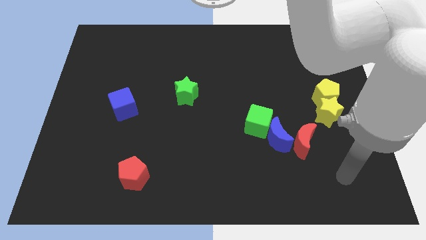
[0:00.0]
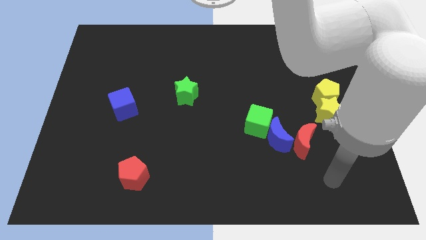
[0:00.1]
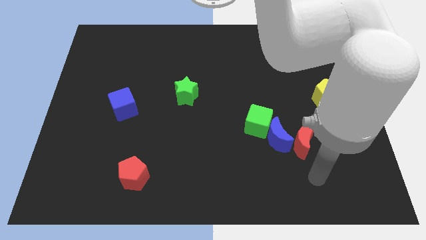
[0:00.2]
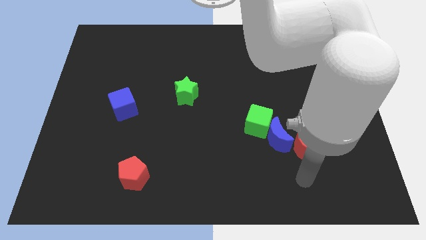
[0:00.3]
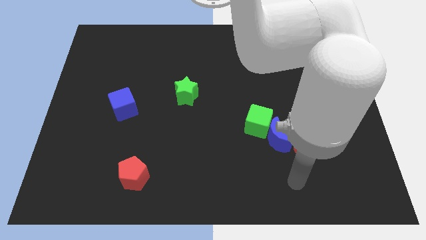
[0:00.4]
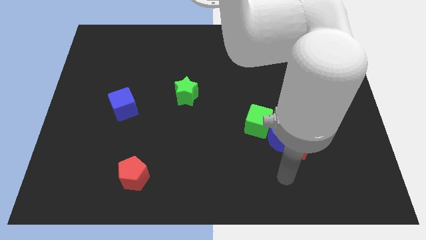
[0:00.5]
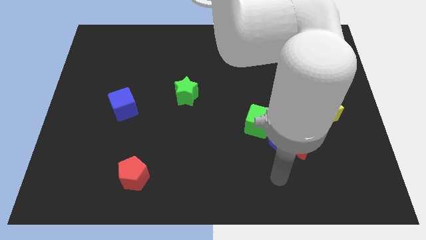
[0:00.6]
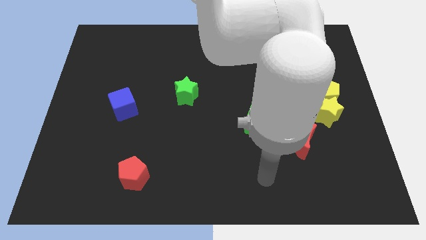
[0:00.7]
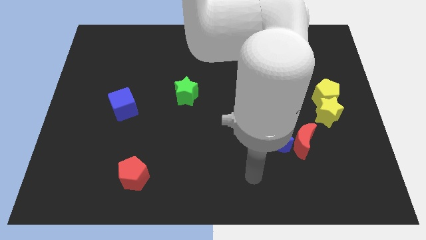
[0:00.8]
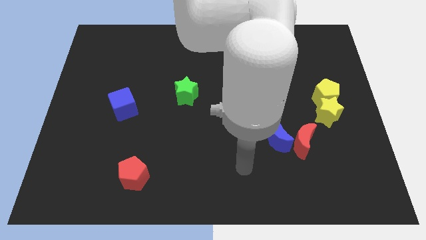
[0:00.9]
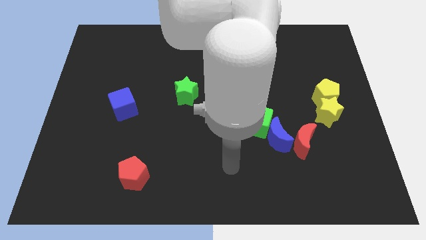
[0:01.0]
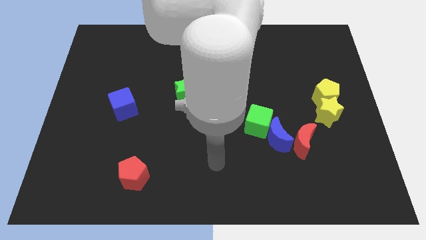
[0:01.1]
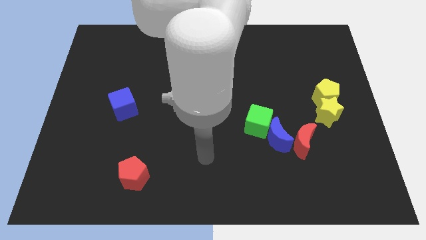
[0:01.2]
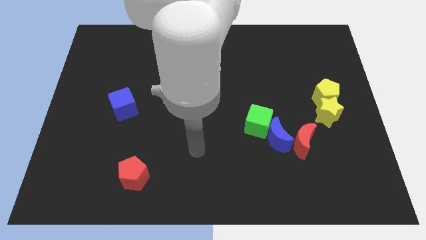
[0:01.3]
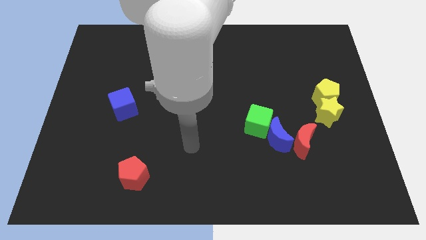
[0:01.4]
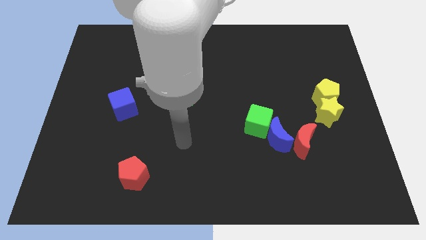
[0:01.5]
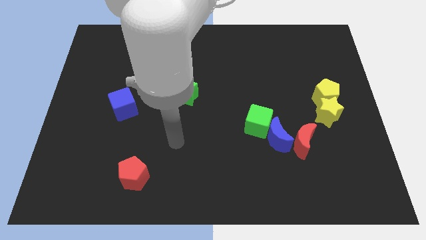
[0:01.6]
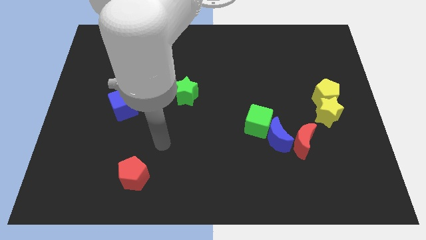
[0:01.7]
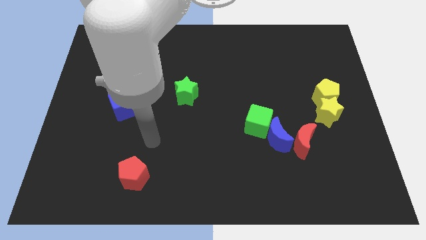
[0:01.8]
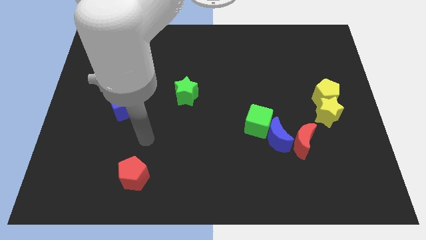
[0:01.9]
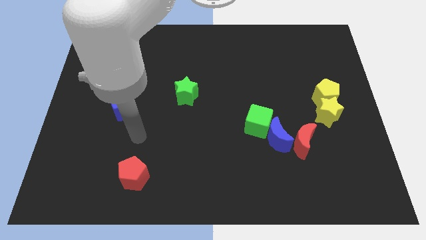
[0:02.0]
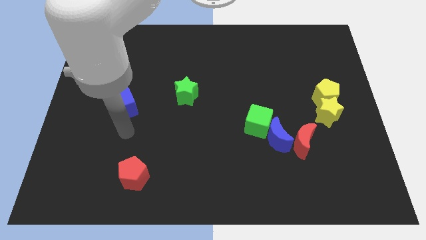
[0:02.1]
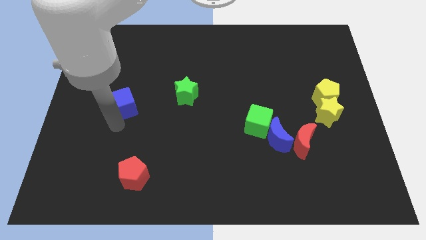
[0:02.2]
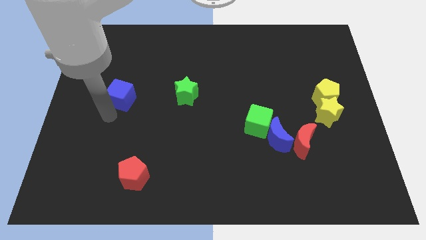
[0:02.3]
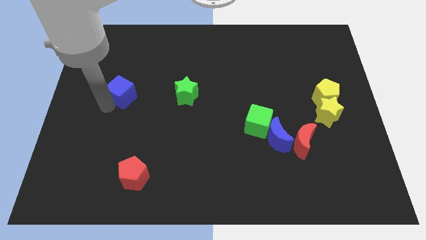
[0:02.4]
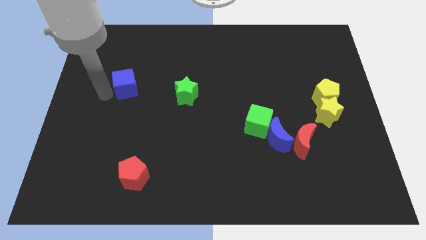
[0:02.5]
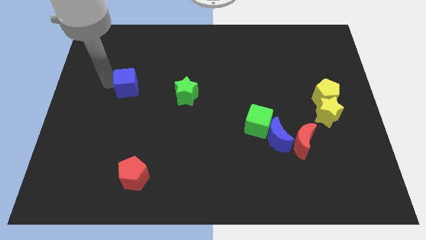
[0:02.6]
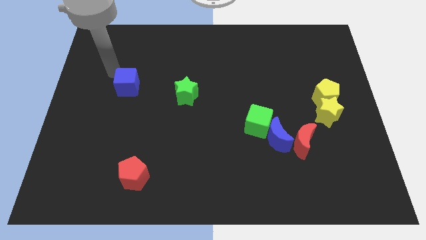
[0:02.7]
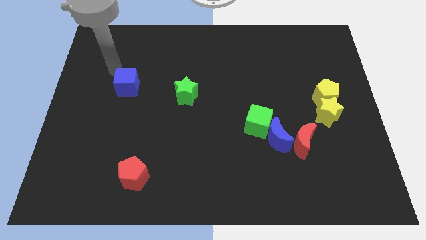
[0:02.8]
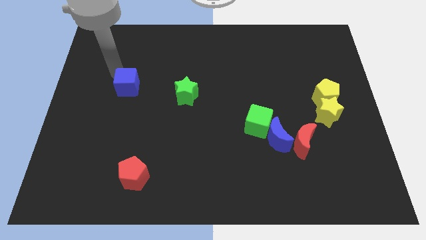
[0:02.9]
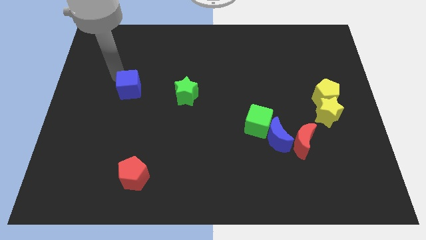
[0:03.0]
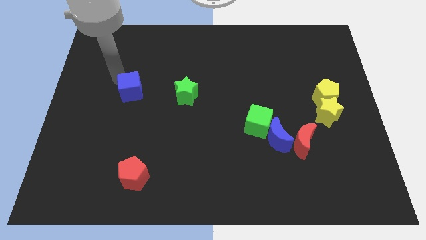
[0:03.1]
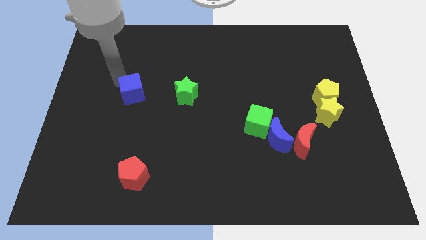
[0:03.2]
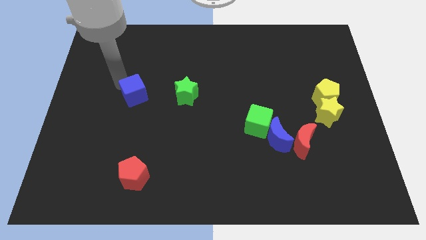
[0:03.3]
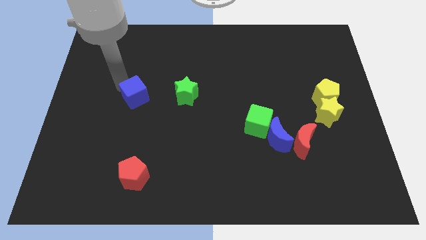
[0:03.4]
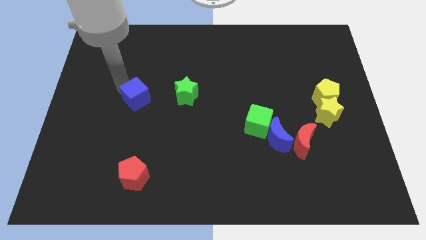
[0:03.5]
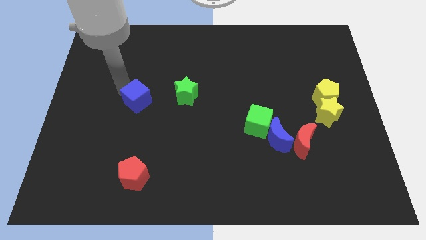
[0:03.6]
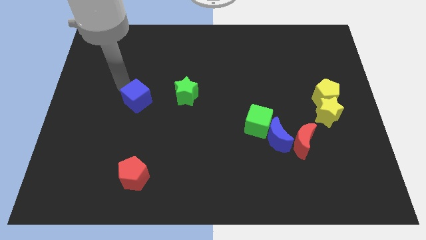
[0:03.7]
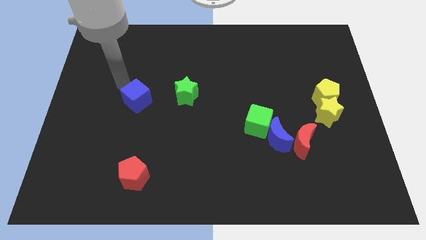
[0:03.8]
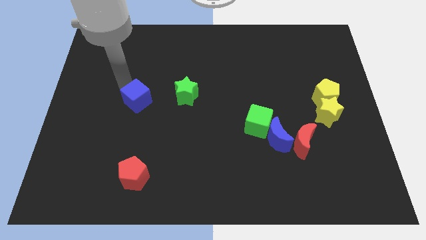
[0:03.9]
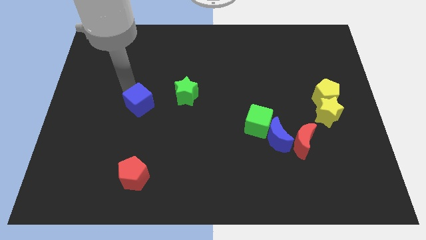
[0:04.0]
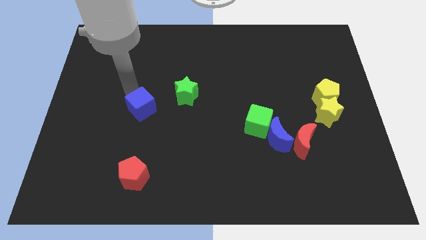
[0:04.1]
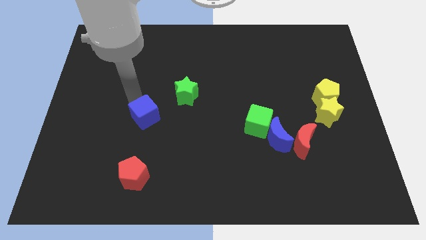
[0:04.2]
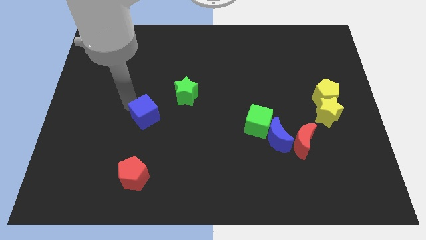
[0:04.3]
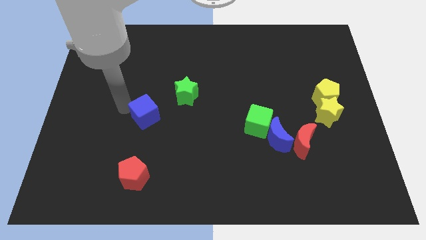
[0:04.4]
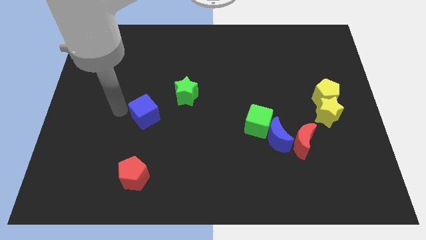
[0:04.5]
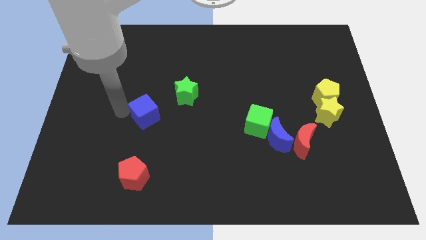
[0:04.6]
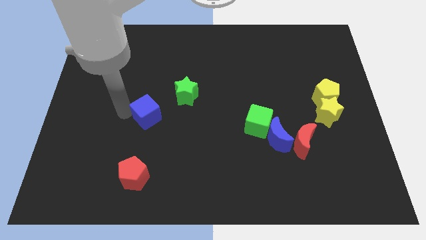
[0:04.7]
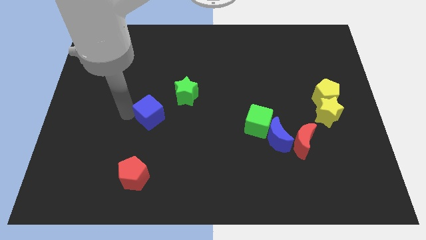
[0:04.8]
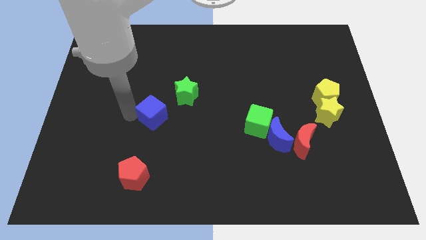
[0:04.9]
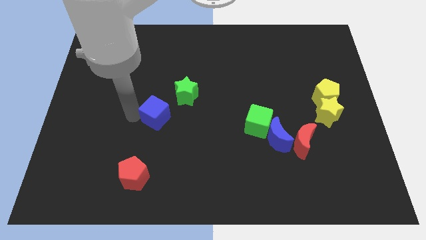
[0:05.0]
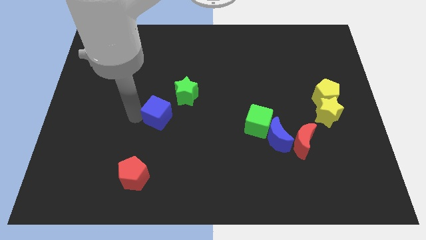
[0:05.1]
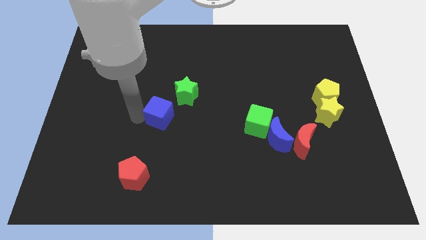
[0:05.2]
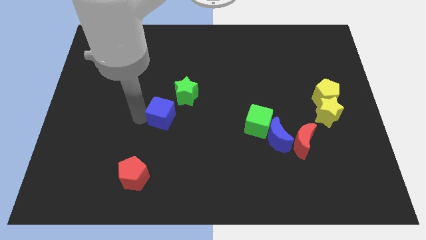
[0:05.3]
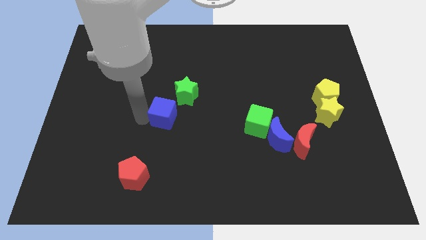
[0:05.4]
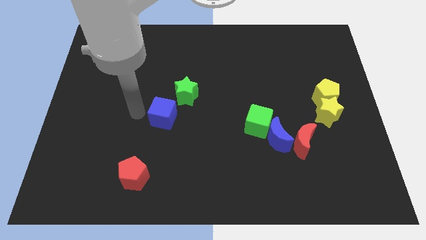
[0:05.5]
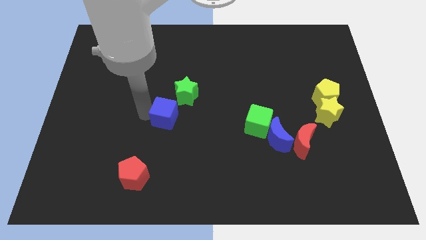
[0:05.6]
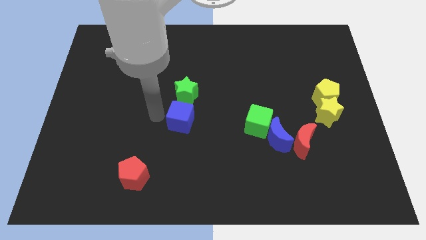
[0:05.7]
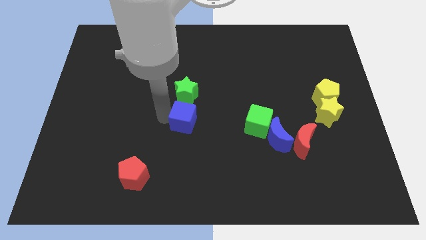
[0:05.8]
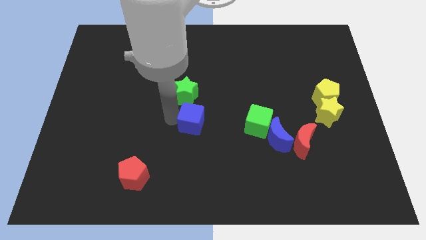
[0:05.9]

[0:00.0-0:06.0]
push the blue cube to the left side of the green cube

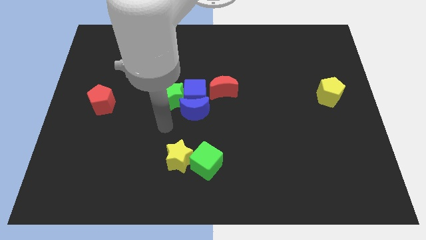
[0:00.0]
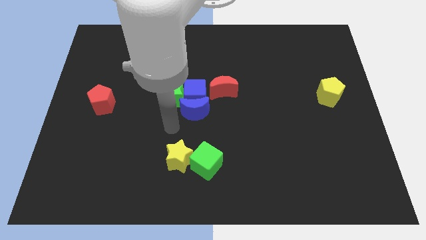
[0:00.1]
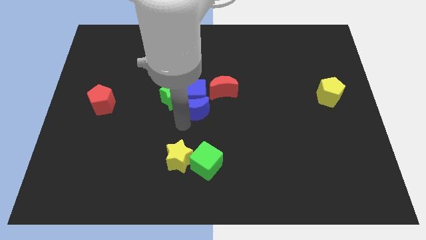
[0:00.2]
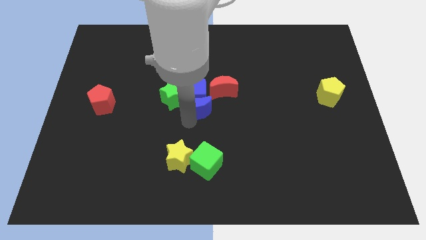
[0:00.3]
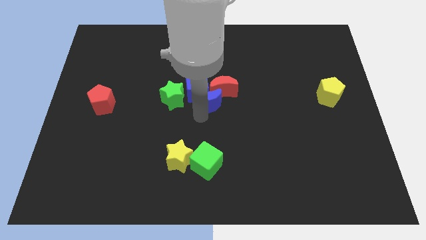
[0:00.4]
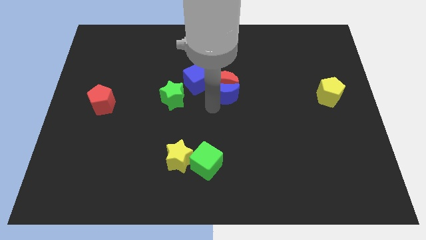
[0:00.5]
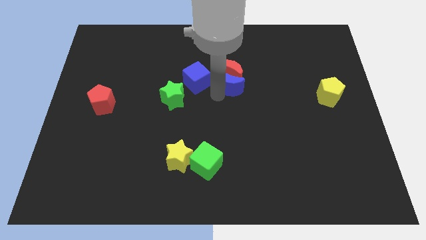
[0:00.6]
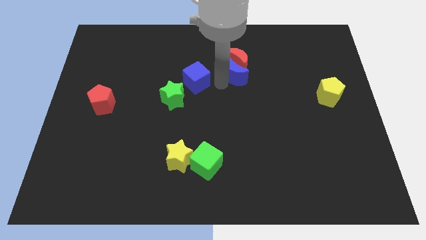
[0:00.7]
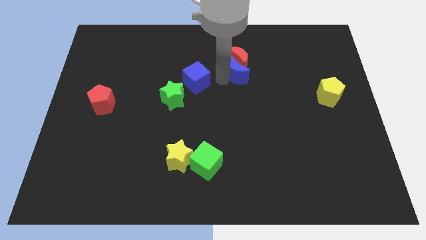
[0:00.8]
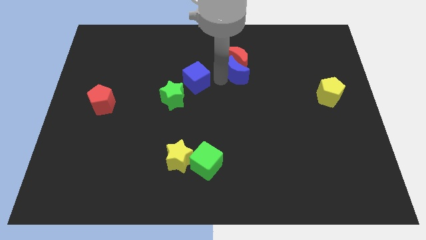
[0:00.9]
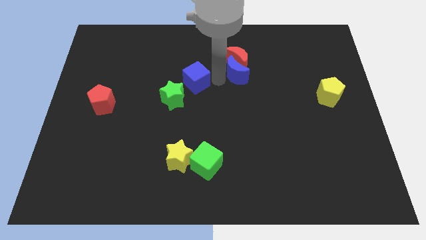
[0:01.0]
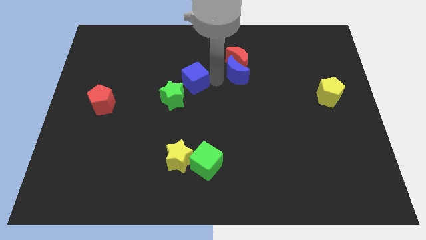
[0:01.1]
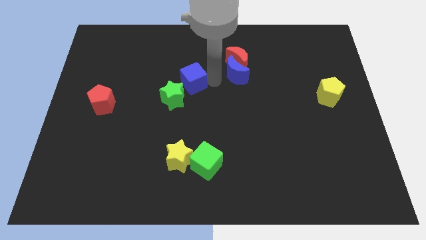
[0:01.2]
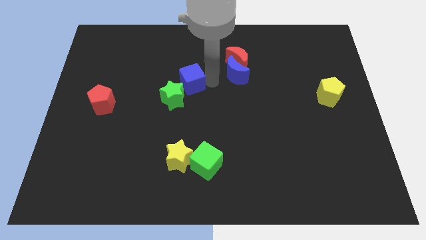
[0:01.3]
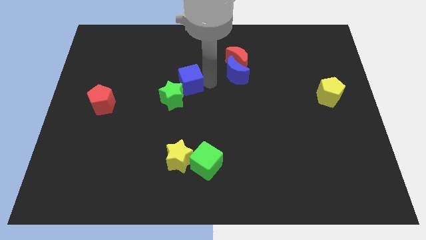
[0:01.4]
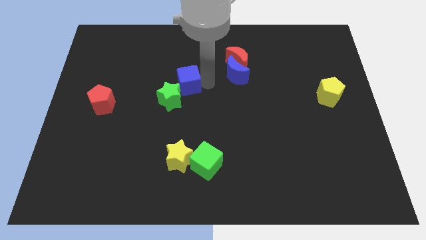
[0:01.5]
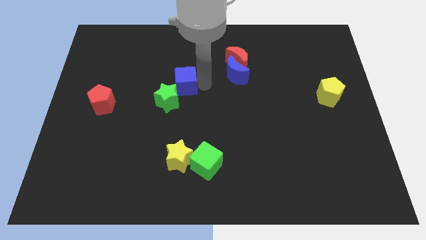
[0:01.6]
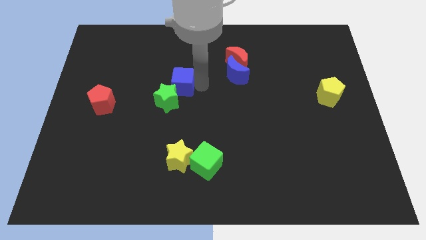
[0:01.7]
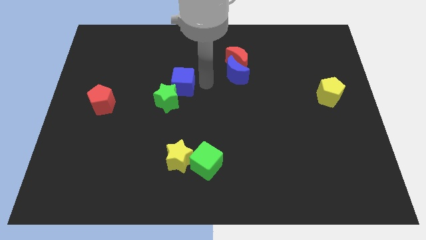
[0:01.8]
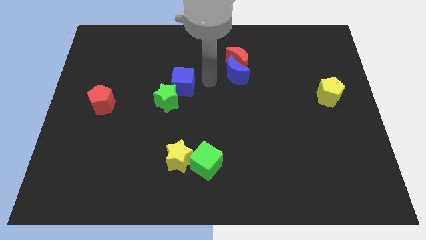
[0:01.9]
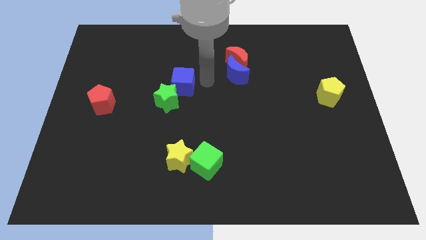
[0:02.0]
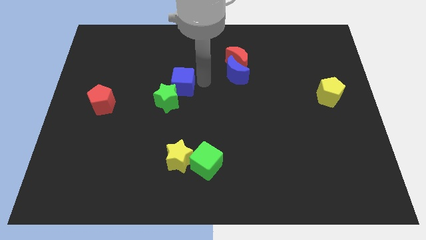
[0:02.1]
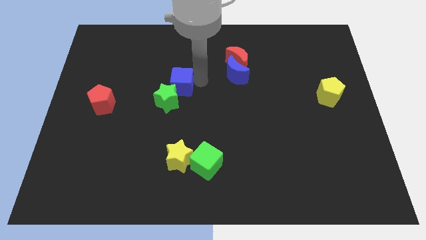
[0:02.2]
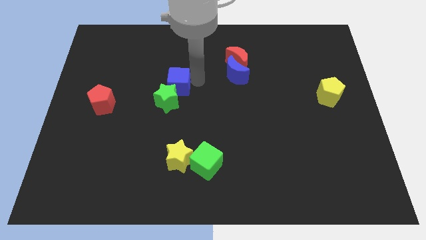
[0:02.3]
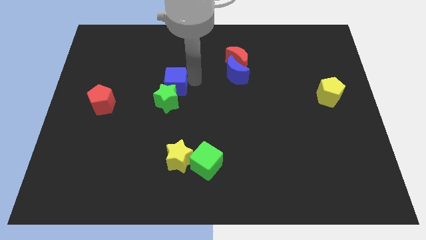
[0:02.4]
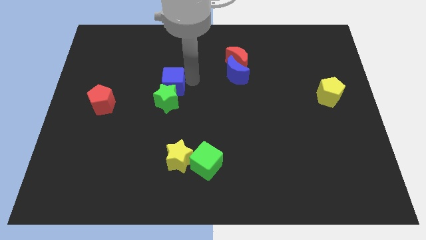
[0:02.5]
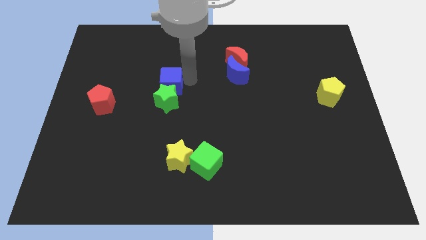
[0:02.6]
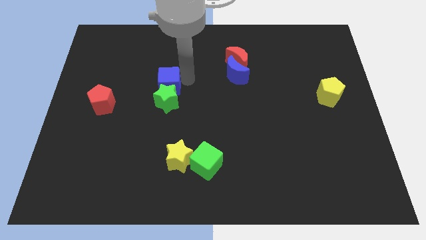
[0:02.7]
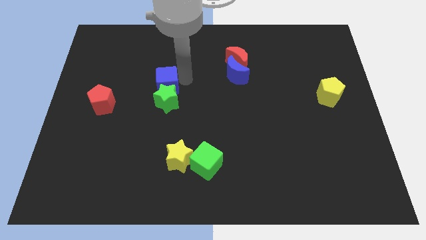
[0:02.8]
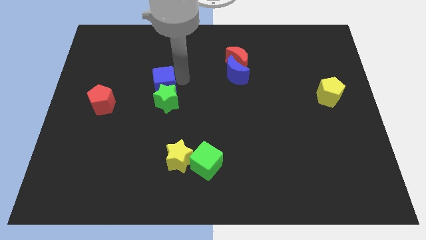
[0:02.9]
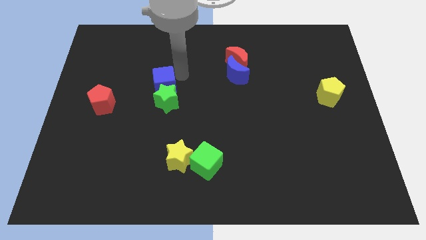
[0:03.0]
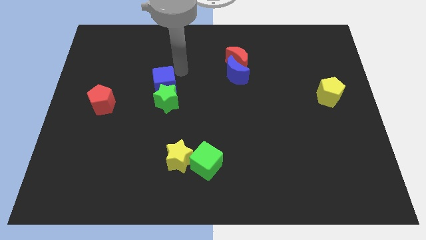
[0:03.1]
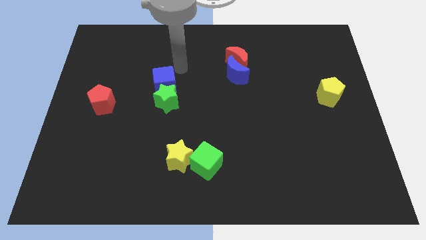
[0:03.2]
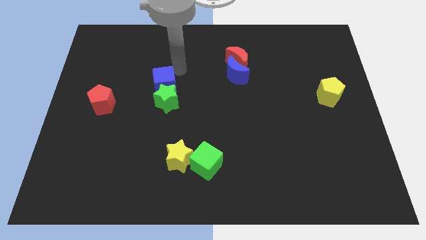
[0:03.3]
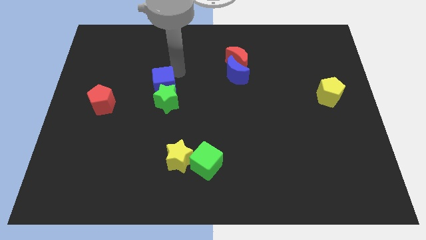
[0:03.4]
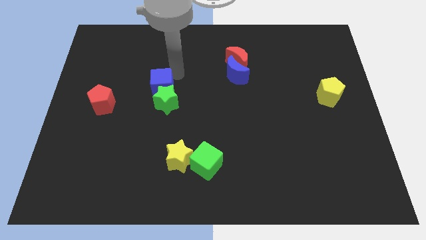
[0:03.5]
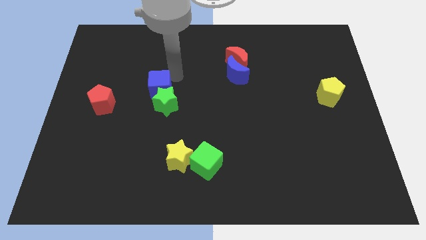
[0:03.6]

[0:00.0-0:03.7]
slide the blue cube right of the red pentagon
